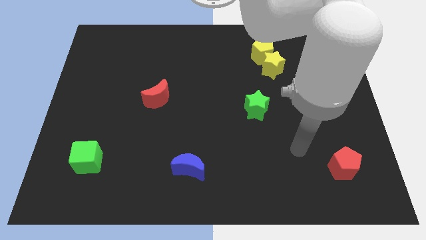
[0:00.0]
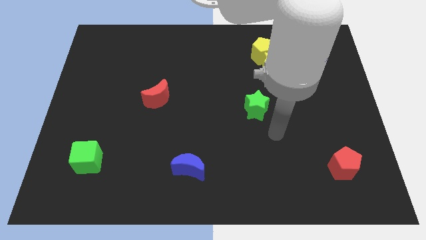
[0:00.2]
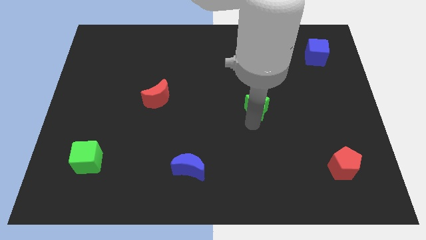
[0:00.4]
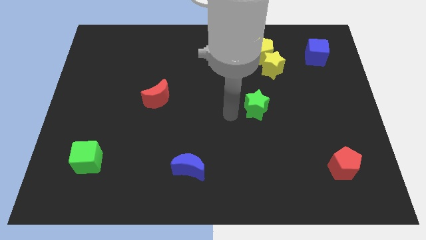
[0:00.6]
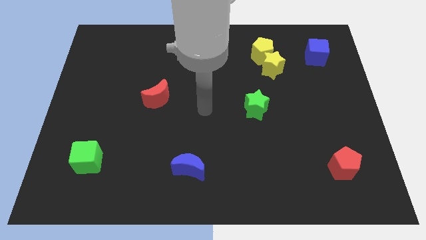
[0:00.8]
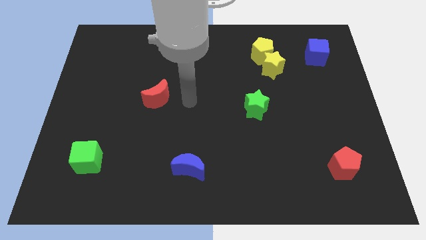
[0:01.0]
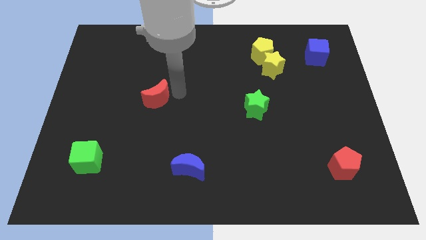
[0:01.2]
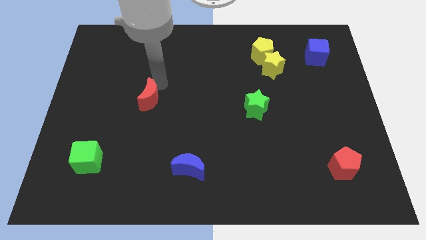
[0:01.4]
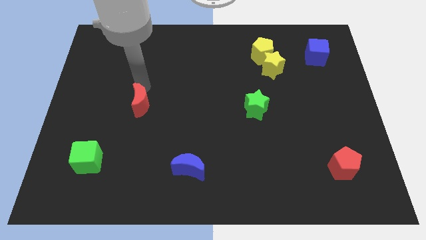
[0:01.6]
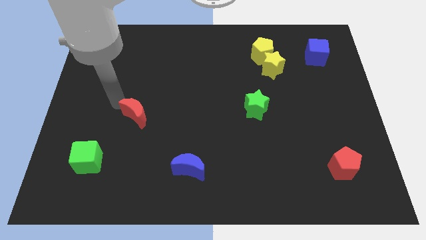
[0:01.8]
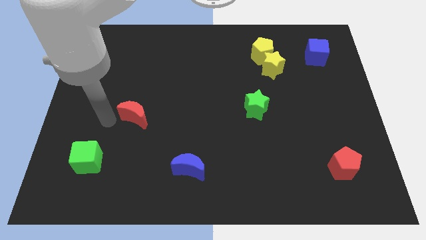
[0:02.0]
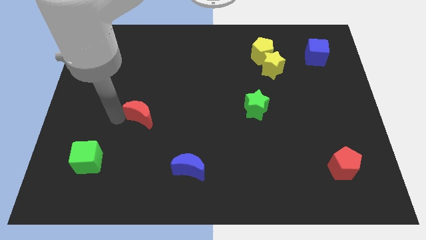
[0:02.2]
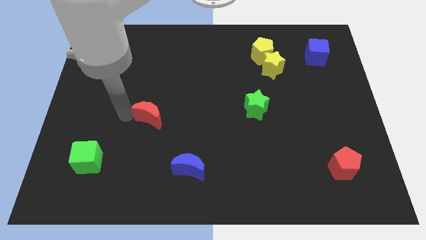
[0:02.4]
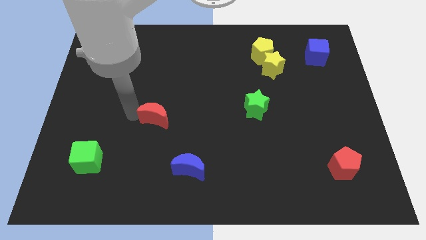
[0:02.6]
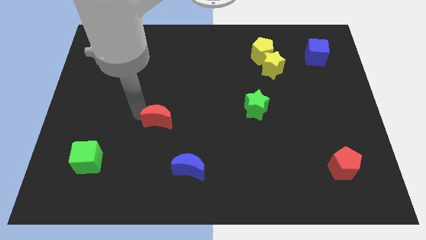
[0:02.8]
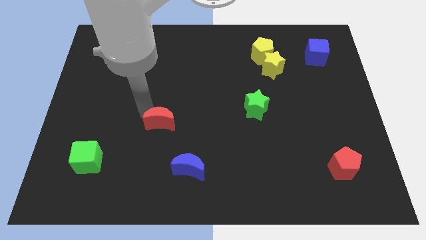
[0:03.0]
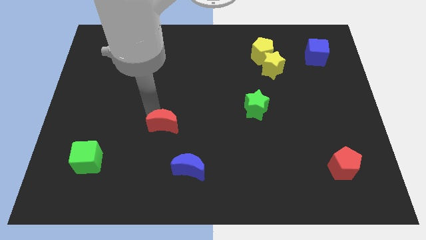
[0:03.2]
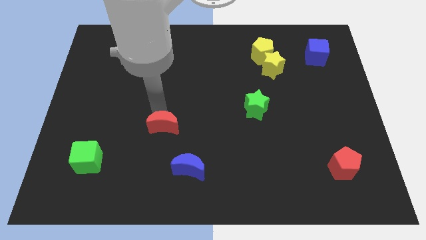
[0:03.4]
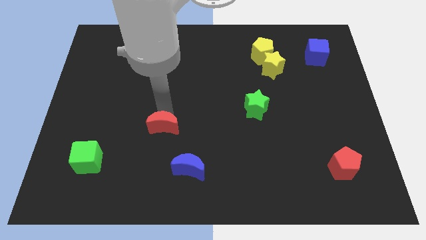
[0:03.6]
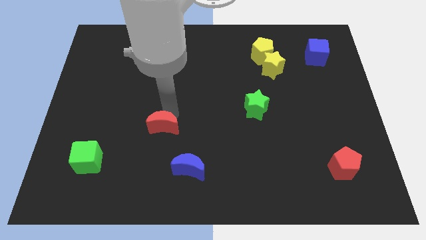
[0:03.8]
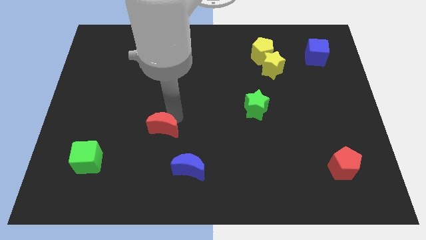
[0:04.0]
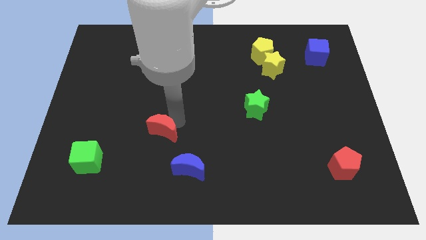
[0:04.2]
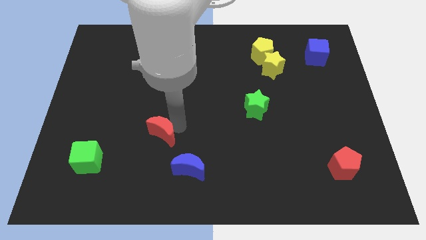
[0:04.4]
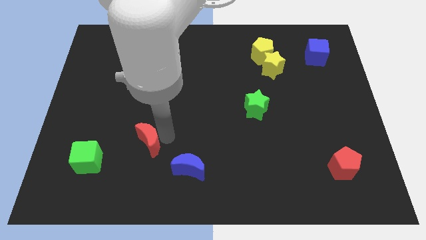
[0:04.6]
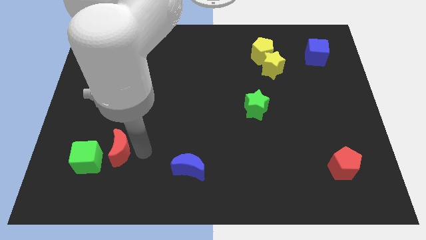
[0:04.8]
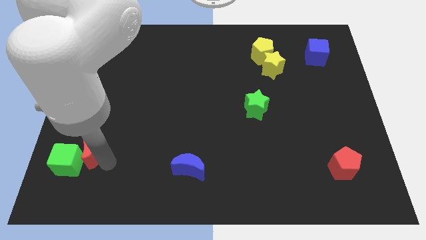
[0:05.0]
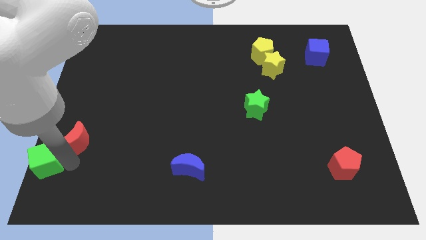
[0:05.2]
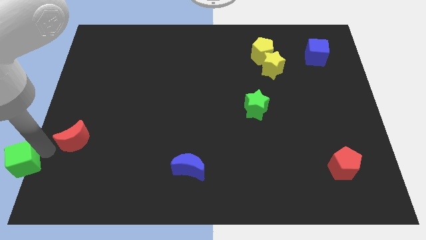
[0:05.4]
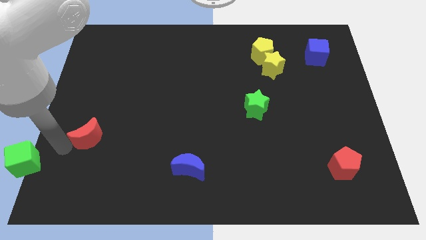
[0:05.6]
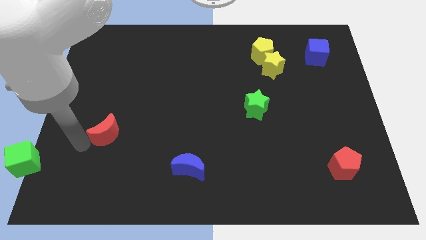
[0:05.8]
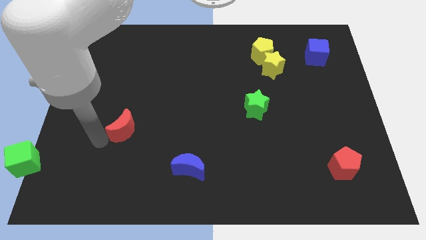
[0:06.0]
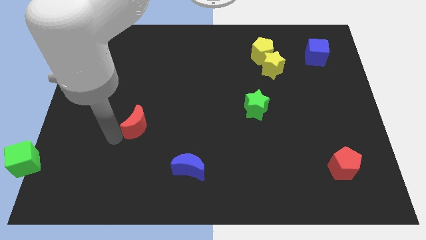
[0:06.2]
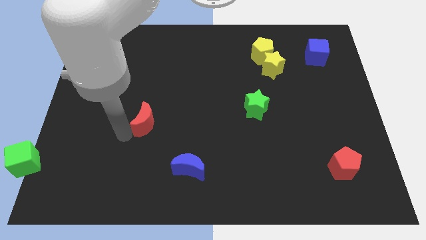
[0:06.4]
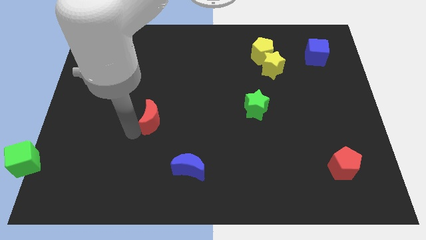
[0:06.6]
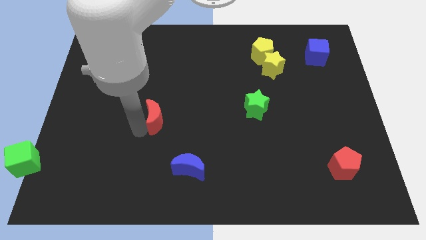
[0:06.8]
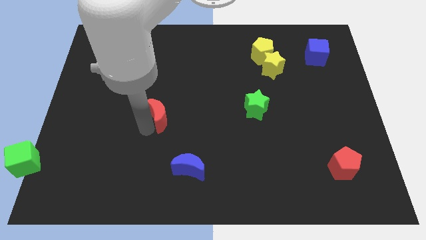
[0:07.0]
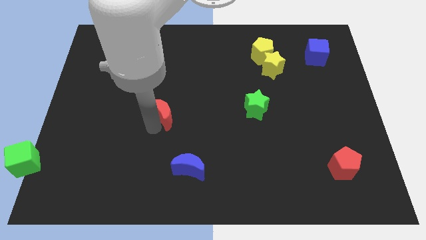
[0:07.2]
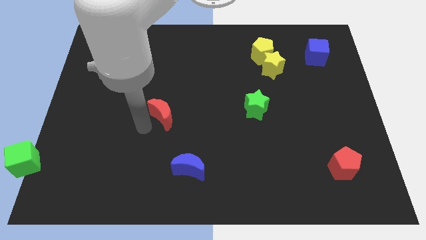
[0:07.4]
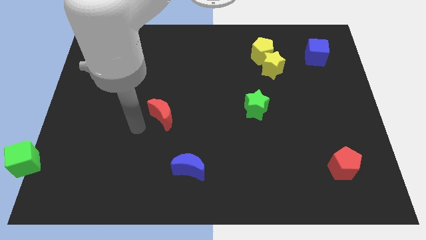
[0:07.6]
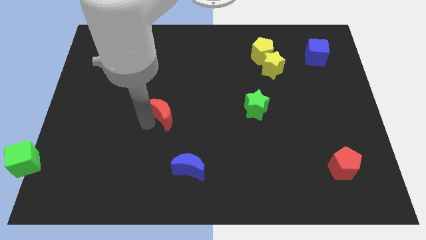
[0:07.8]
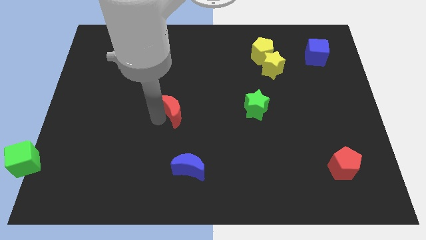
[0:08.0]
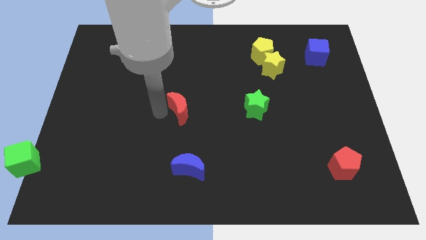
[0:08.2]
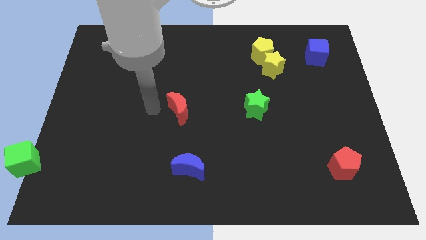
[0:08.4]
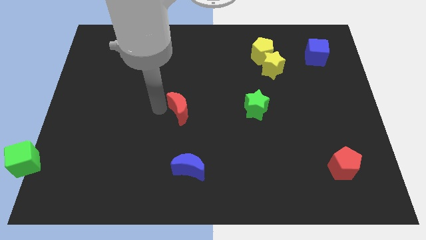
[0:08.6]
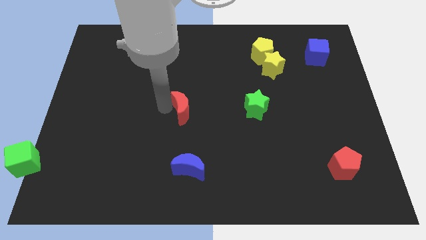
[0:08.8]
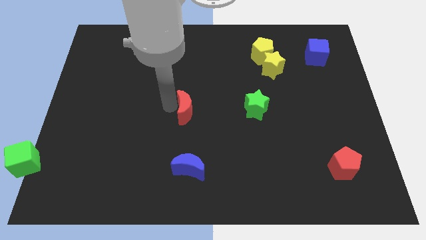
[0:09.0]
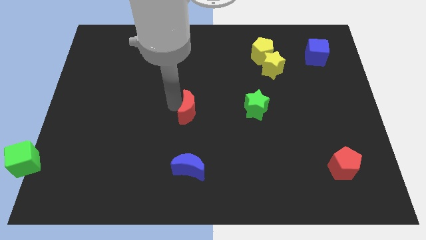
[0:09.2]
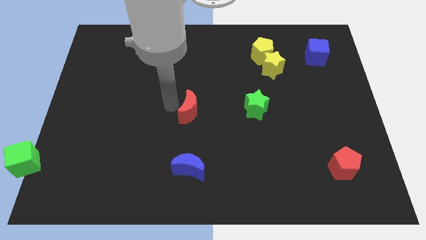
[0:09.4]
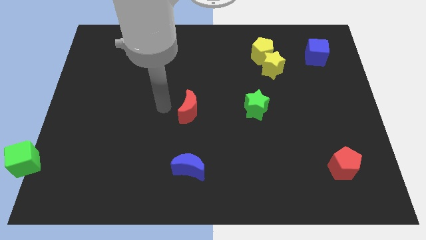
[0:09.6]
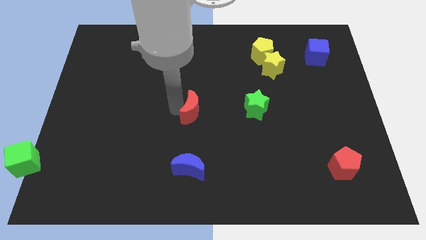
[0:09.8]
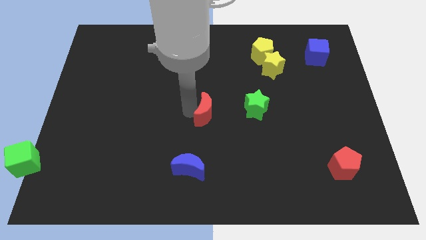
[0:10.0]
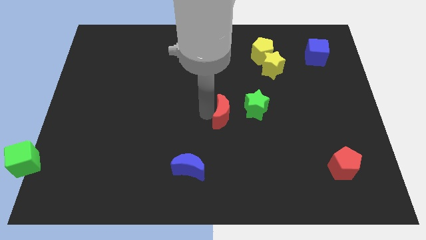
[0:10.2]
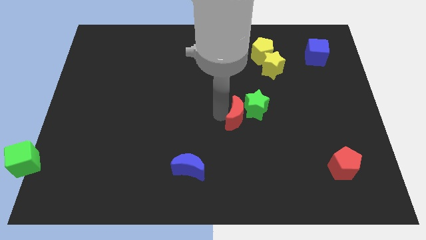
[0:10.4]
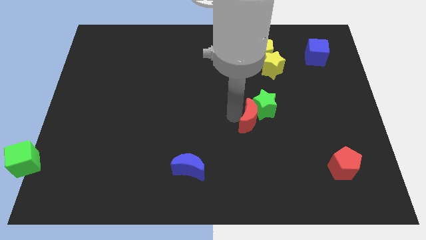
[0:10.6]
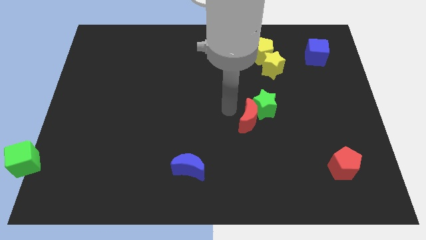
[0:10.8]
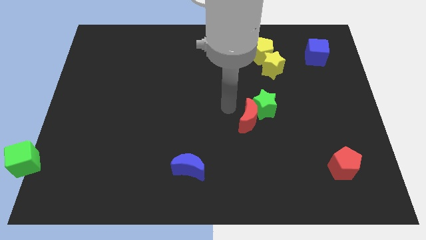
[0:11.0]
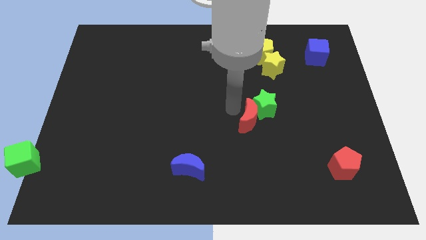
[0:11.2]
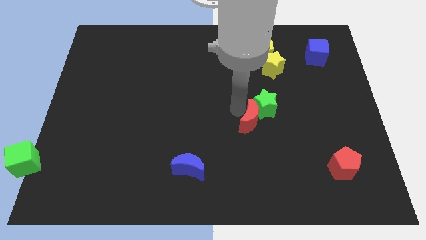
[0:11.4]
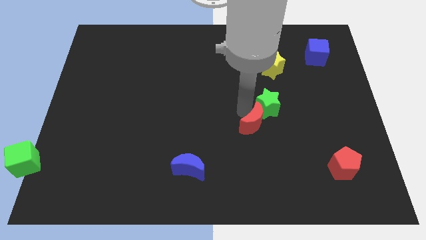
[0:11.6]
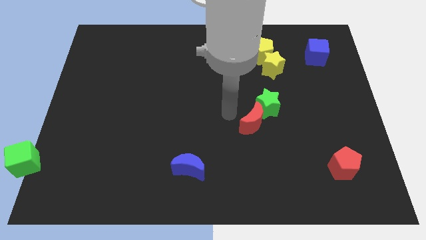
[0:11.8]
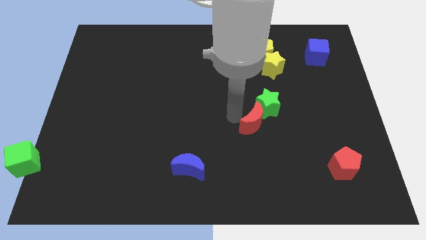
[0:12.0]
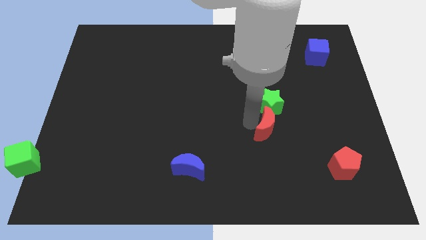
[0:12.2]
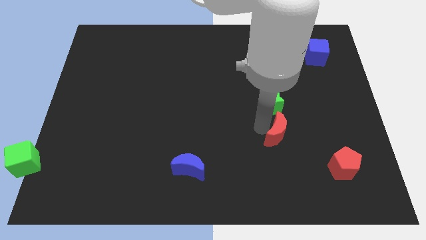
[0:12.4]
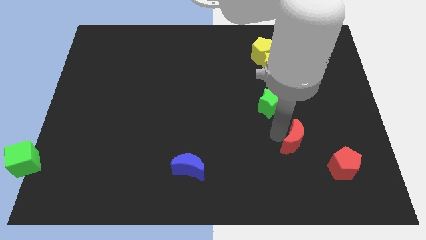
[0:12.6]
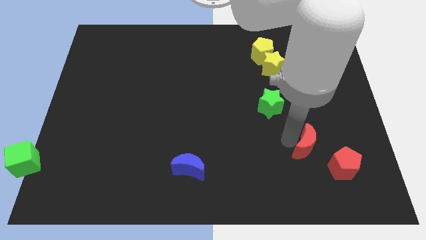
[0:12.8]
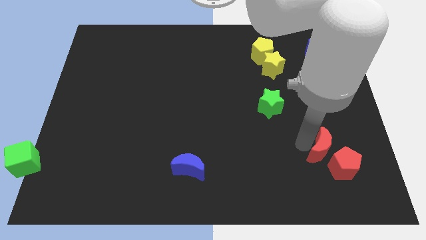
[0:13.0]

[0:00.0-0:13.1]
push the red moon close to the red pentagon
